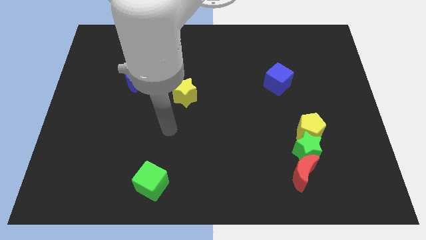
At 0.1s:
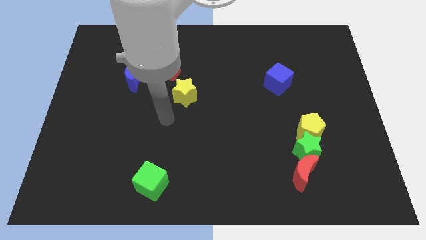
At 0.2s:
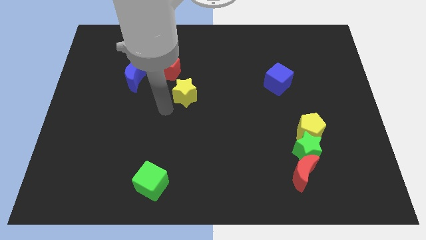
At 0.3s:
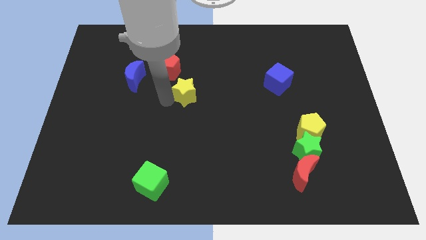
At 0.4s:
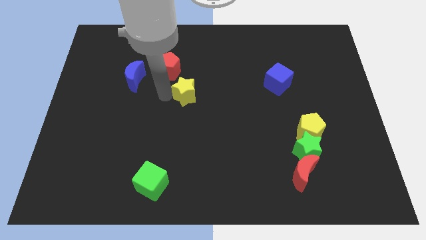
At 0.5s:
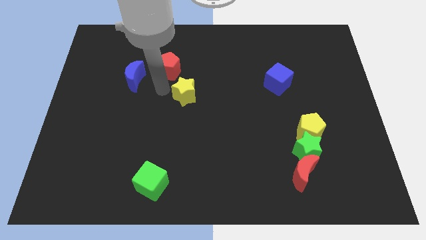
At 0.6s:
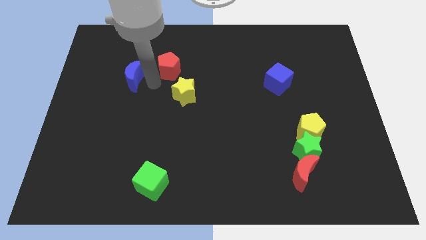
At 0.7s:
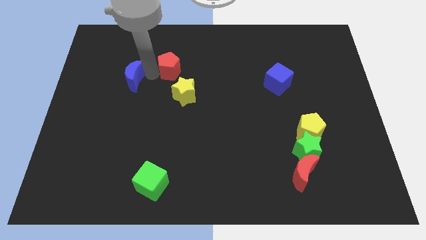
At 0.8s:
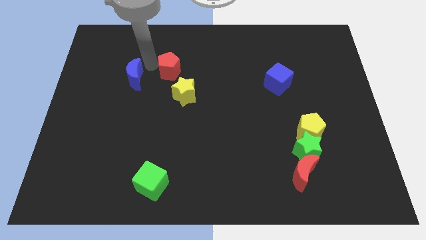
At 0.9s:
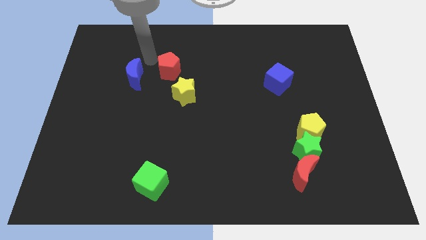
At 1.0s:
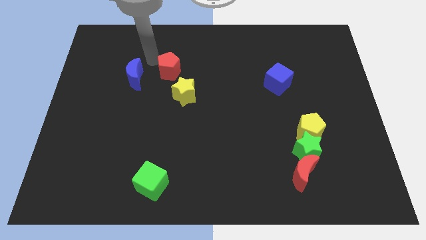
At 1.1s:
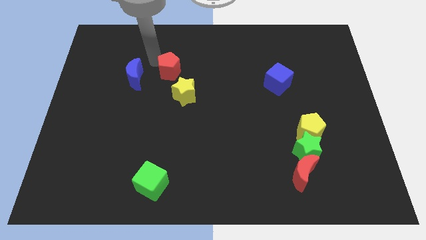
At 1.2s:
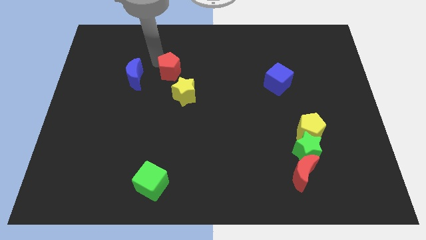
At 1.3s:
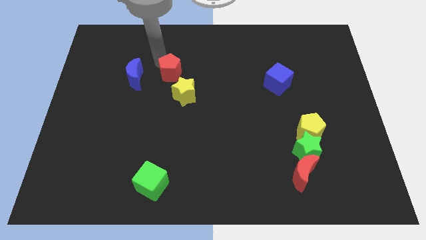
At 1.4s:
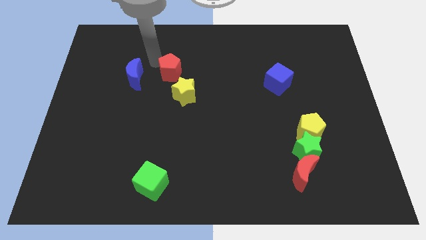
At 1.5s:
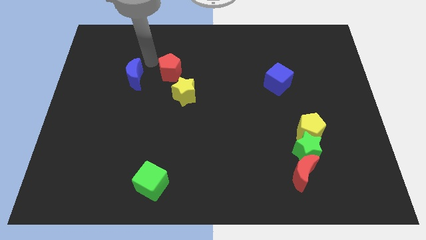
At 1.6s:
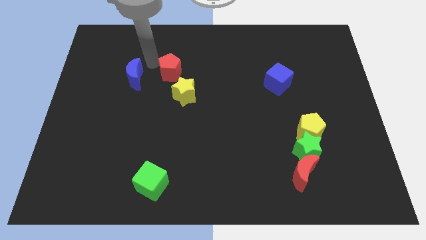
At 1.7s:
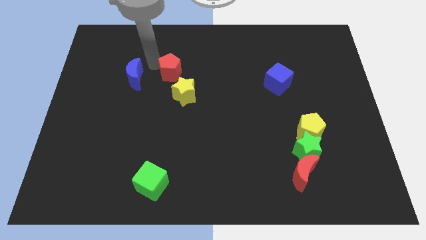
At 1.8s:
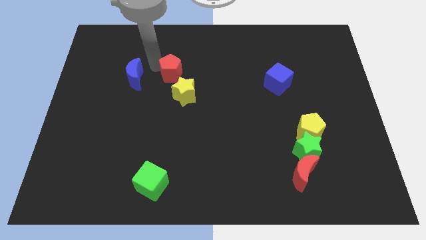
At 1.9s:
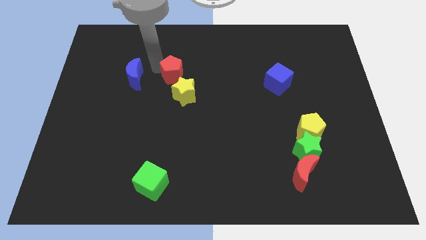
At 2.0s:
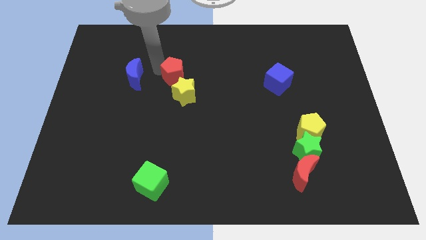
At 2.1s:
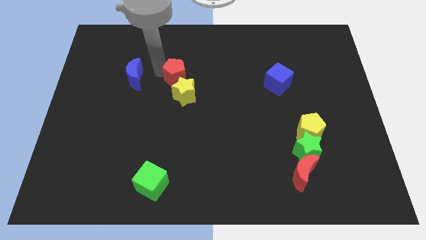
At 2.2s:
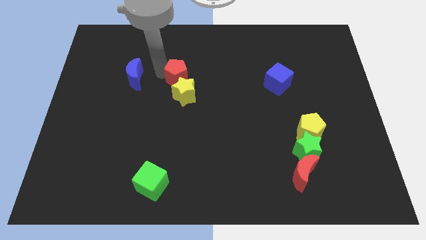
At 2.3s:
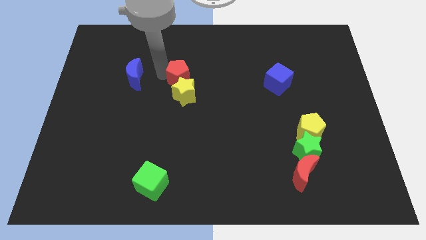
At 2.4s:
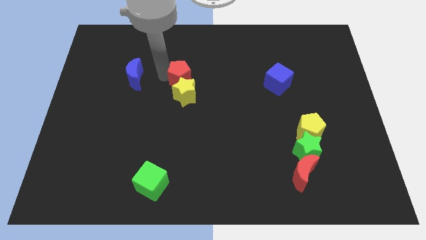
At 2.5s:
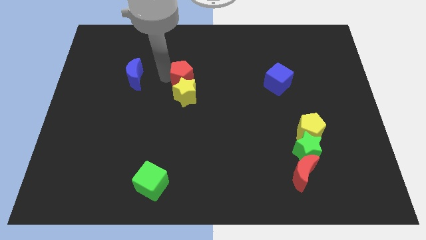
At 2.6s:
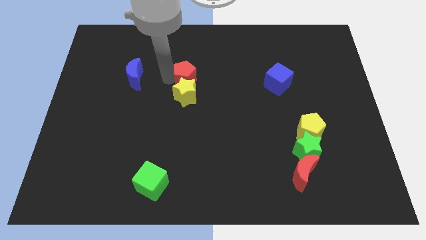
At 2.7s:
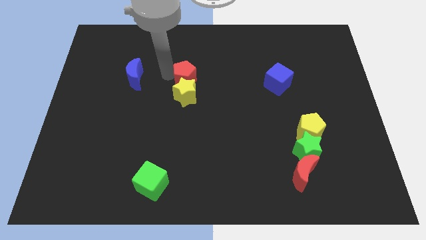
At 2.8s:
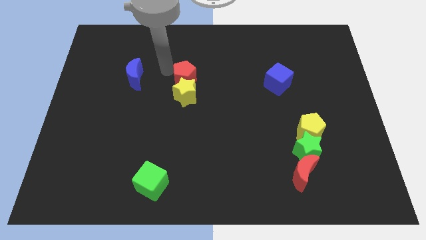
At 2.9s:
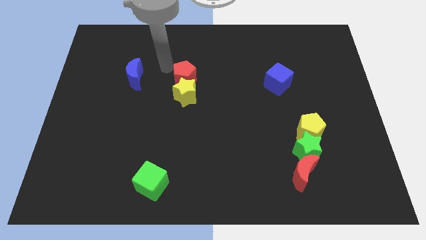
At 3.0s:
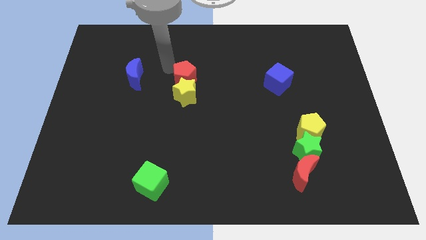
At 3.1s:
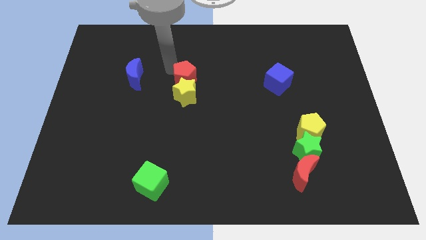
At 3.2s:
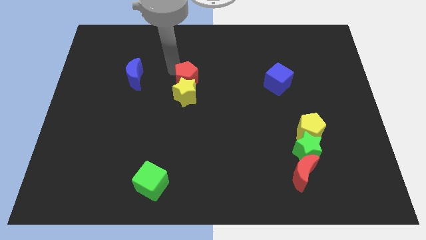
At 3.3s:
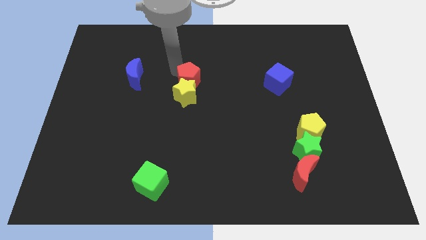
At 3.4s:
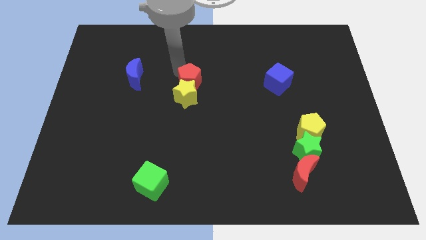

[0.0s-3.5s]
slightly move the red pentagon downwards and to the right

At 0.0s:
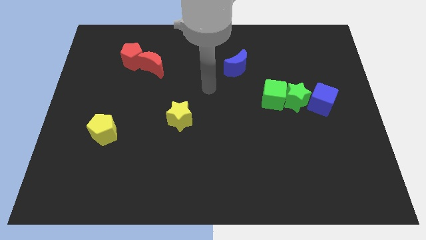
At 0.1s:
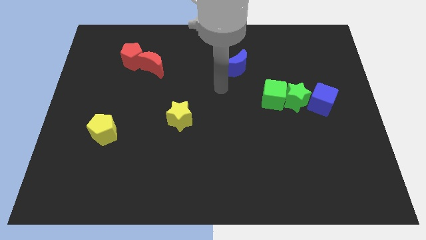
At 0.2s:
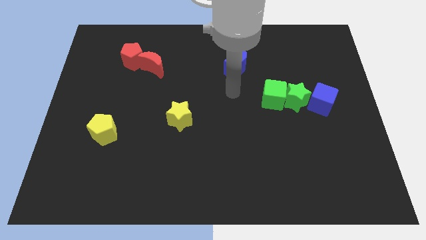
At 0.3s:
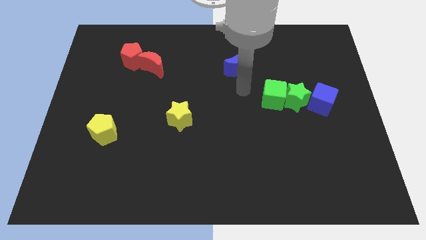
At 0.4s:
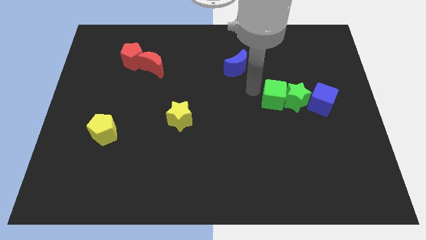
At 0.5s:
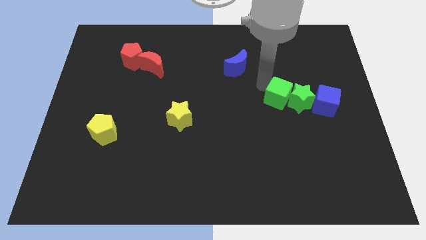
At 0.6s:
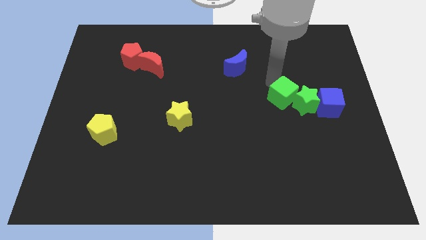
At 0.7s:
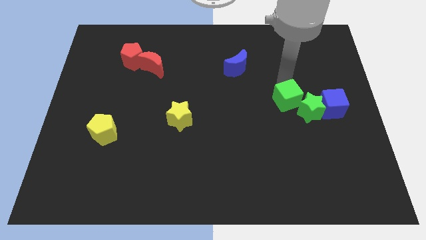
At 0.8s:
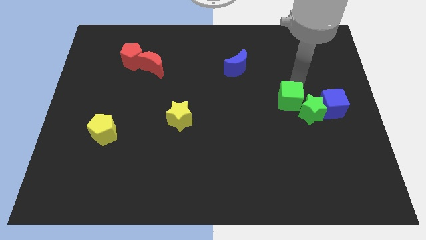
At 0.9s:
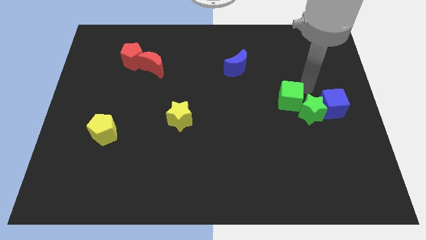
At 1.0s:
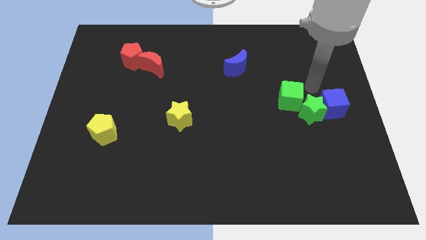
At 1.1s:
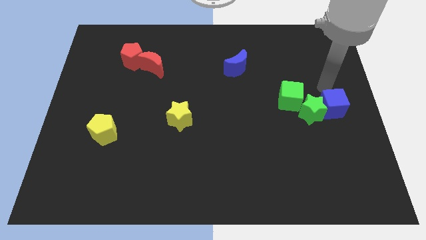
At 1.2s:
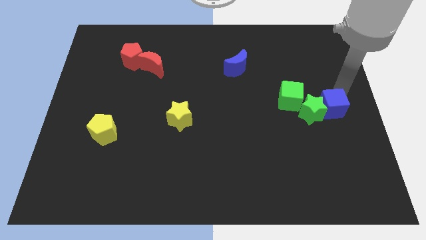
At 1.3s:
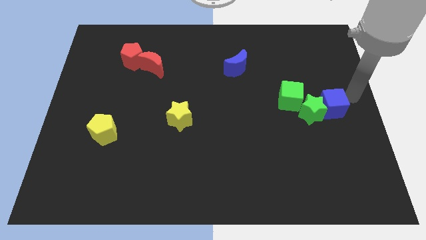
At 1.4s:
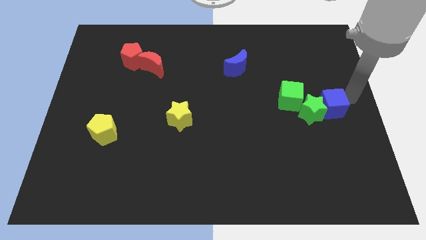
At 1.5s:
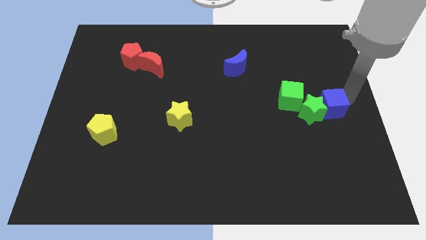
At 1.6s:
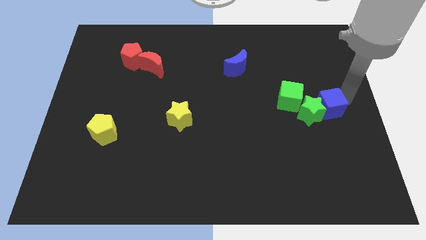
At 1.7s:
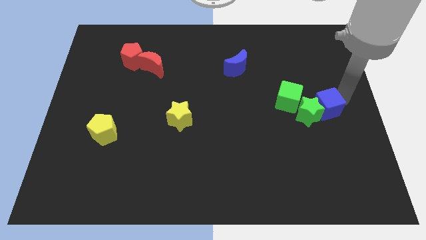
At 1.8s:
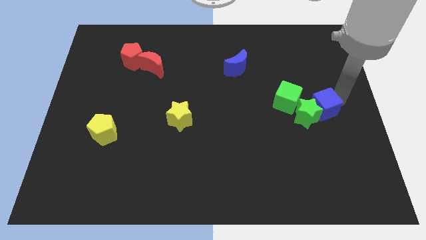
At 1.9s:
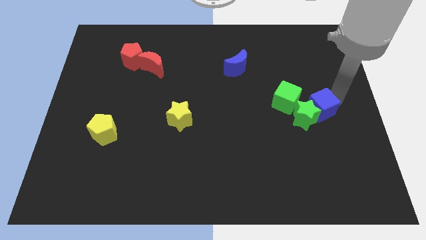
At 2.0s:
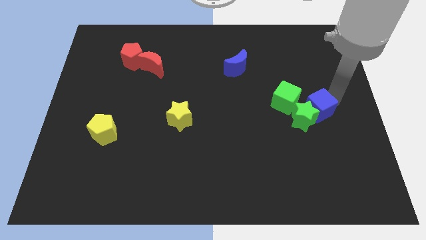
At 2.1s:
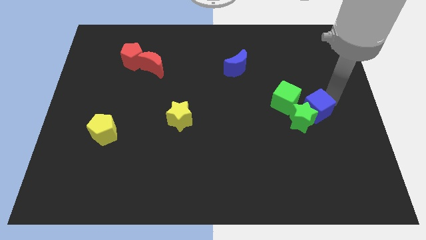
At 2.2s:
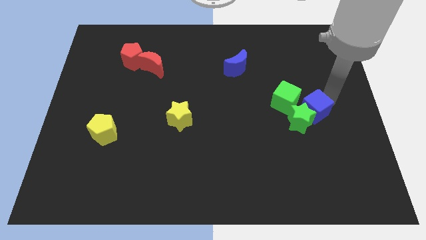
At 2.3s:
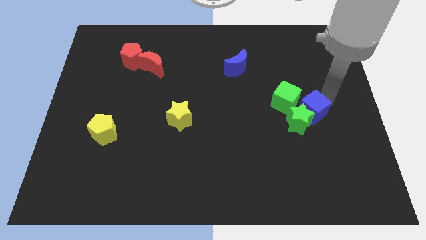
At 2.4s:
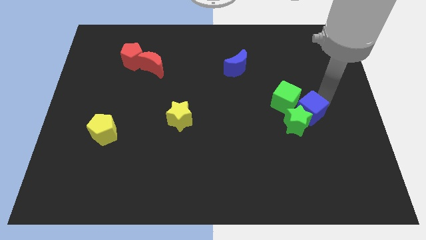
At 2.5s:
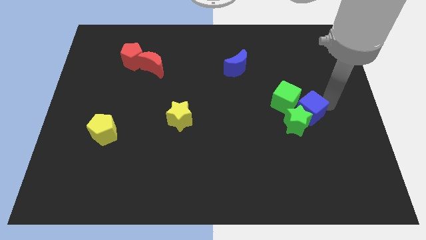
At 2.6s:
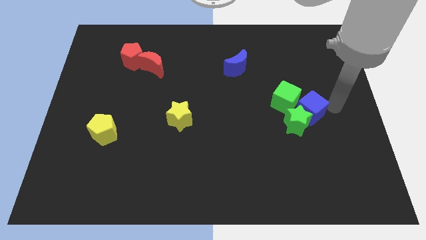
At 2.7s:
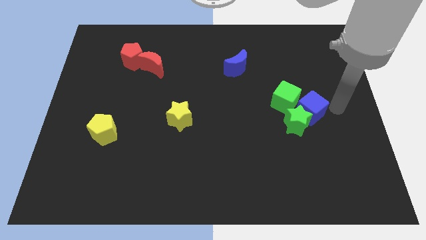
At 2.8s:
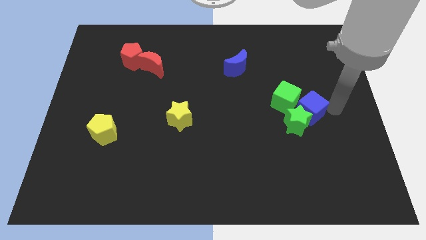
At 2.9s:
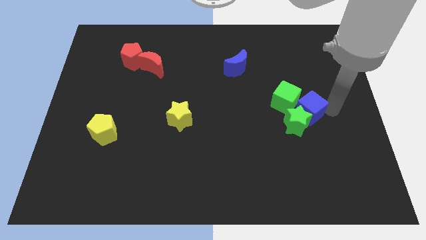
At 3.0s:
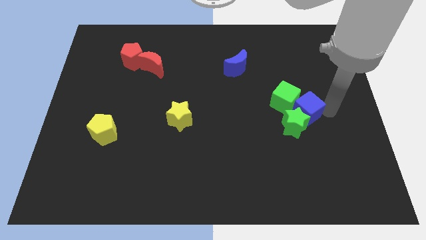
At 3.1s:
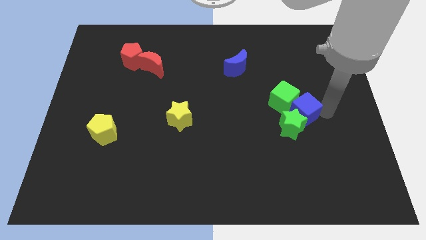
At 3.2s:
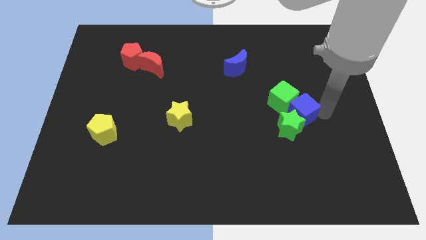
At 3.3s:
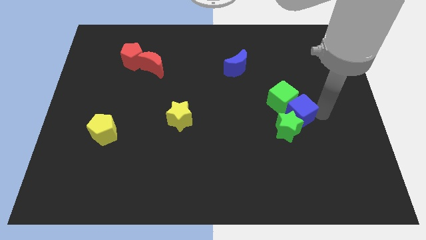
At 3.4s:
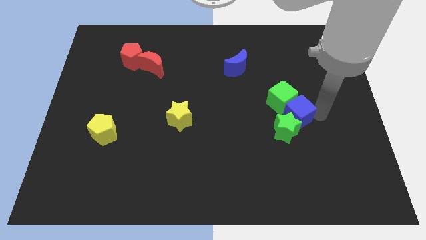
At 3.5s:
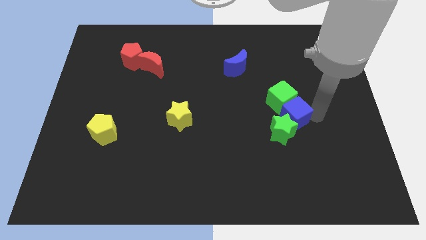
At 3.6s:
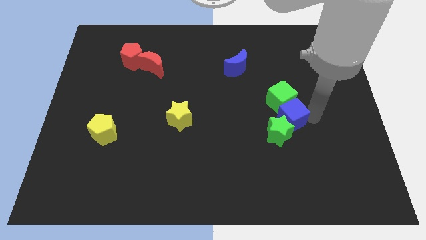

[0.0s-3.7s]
move the blue cube left slightly

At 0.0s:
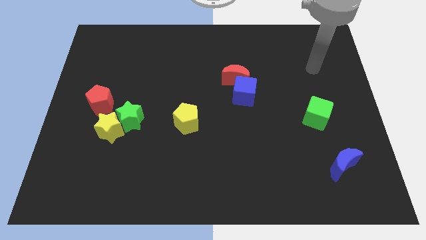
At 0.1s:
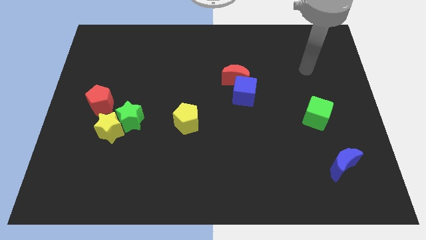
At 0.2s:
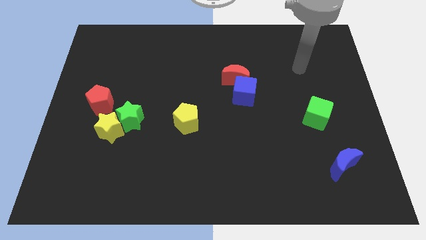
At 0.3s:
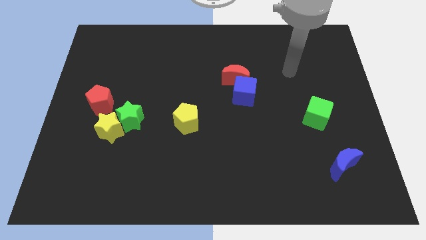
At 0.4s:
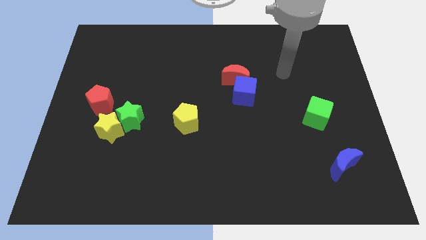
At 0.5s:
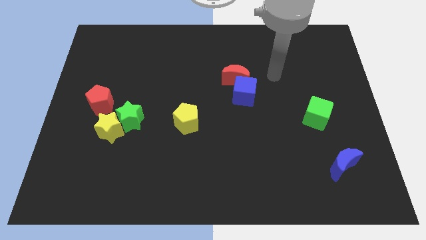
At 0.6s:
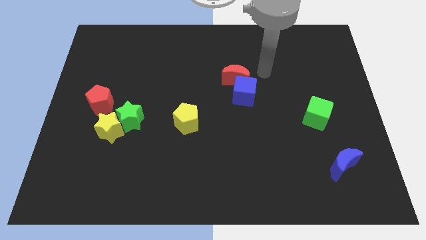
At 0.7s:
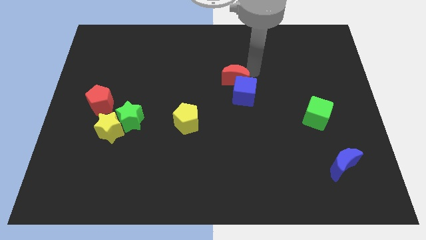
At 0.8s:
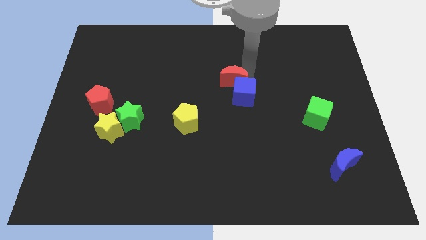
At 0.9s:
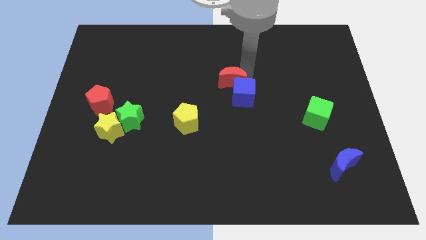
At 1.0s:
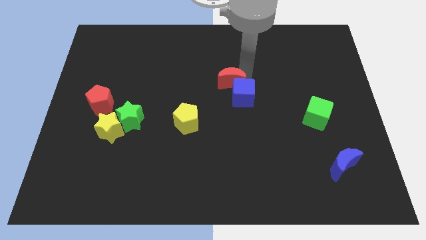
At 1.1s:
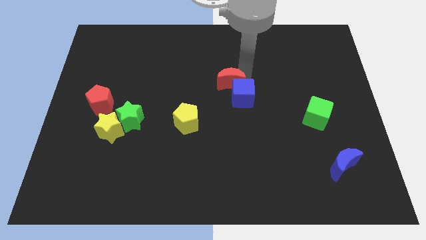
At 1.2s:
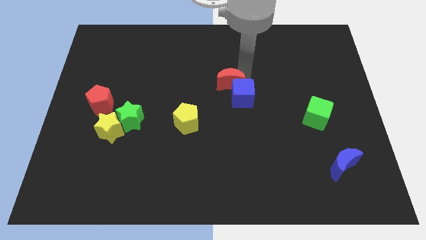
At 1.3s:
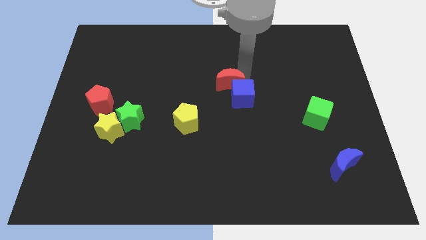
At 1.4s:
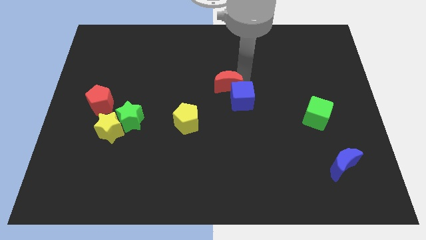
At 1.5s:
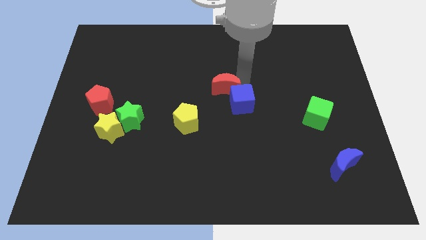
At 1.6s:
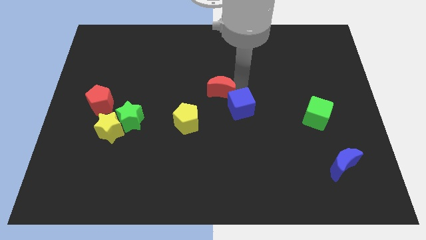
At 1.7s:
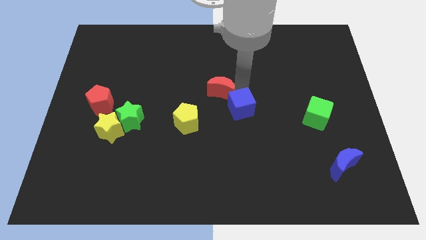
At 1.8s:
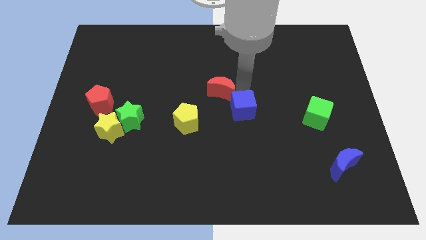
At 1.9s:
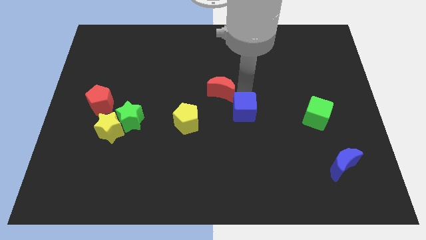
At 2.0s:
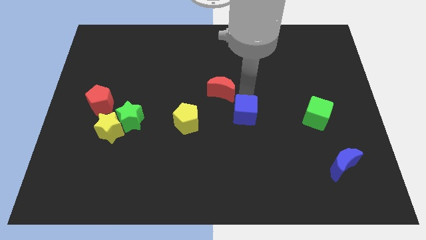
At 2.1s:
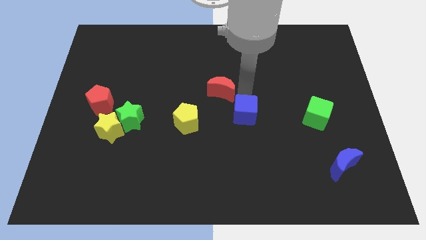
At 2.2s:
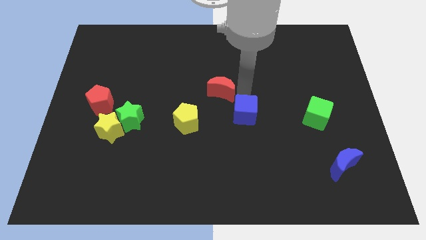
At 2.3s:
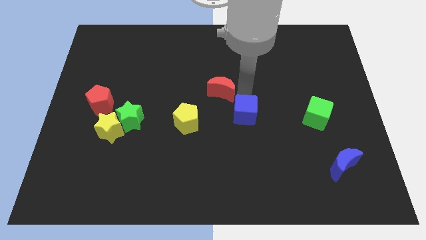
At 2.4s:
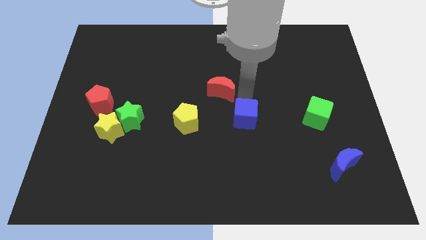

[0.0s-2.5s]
slightly move the blue cube down
